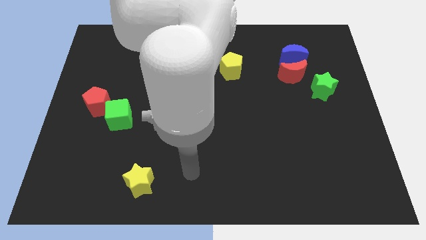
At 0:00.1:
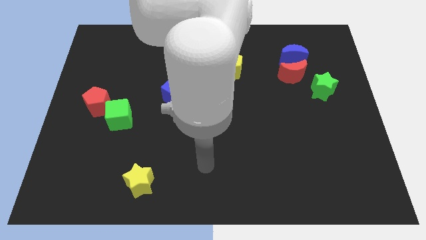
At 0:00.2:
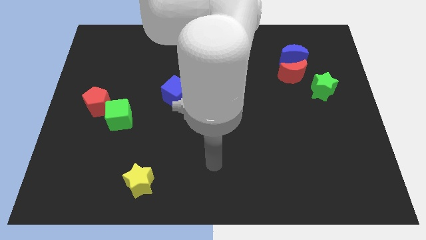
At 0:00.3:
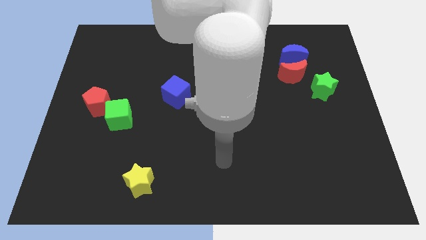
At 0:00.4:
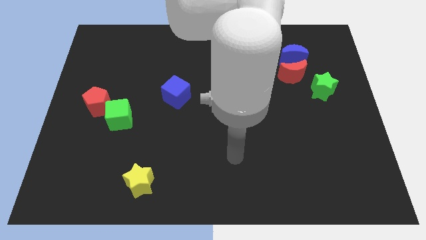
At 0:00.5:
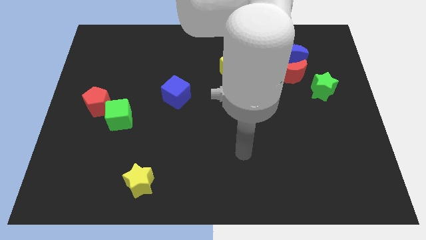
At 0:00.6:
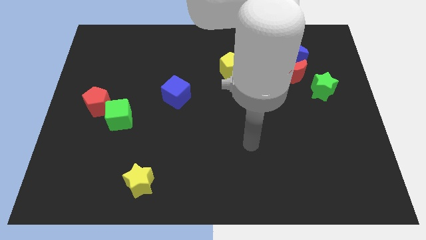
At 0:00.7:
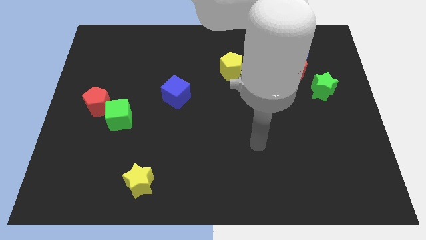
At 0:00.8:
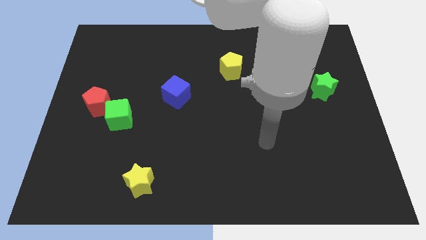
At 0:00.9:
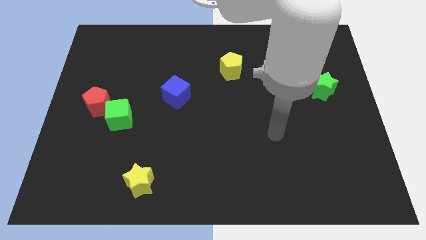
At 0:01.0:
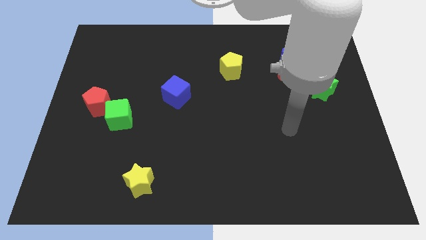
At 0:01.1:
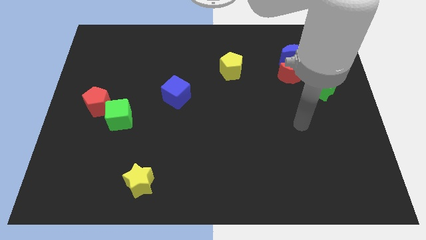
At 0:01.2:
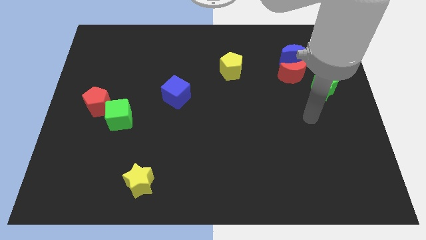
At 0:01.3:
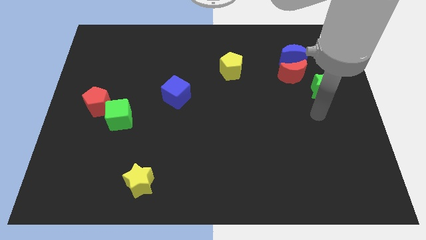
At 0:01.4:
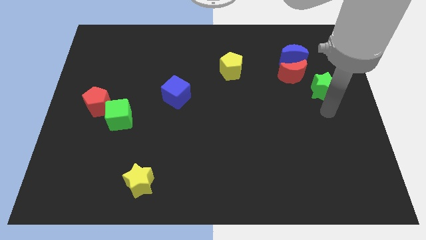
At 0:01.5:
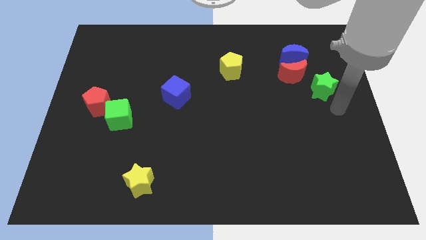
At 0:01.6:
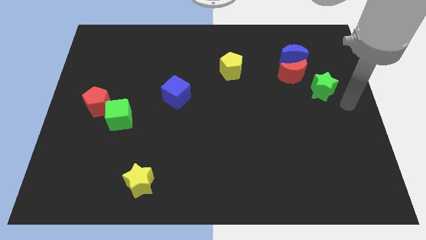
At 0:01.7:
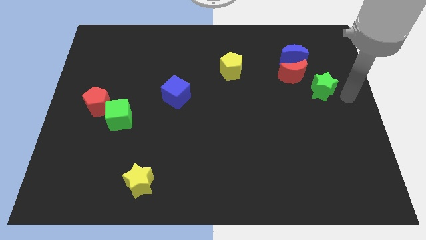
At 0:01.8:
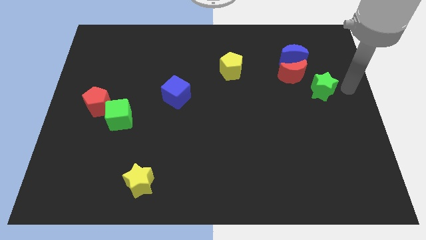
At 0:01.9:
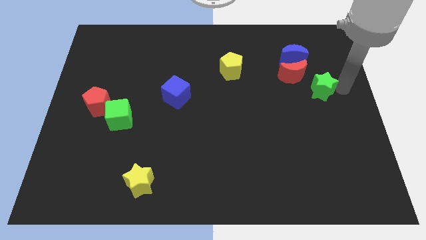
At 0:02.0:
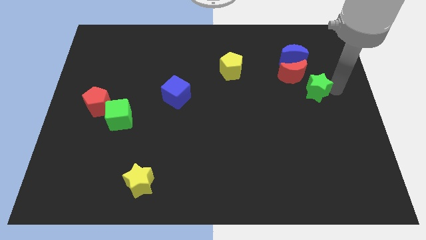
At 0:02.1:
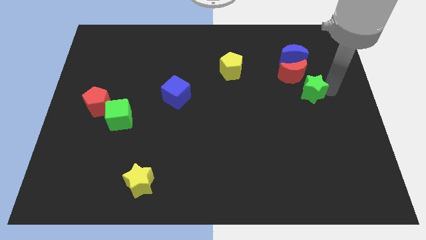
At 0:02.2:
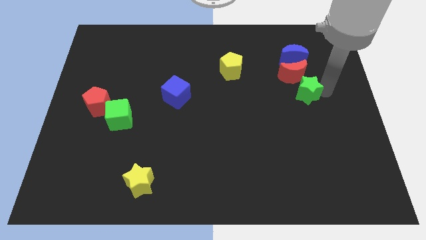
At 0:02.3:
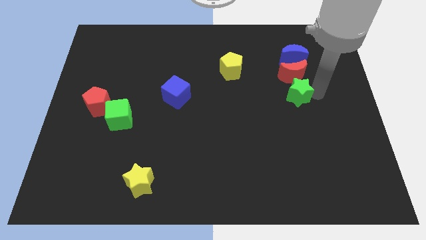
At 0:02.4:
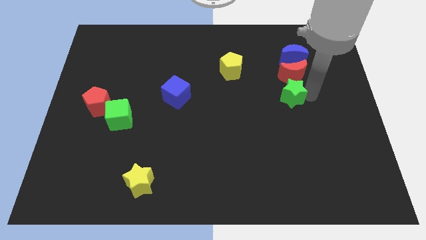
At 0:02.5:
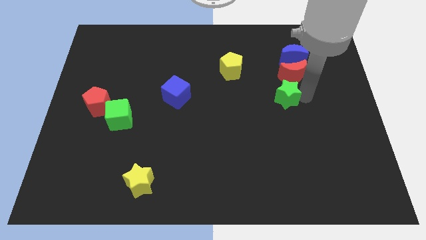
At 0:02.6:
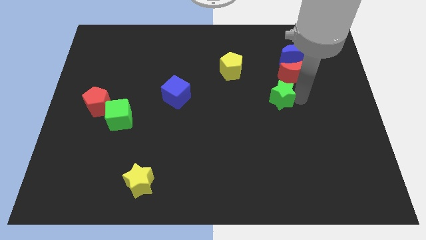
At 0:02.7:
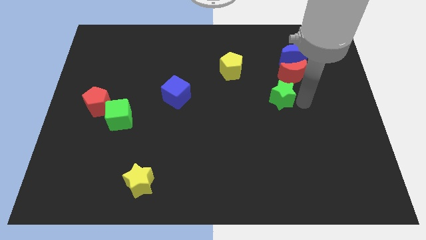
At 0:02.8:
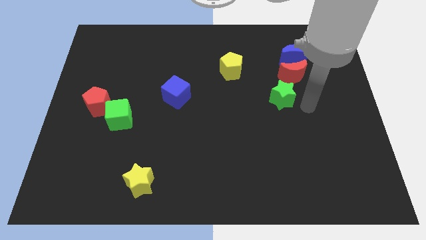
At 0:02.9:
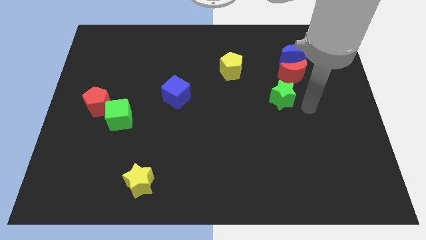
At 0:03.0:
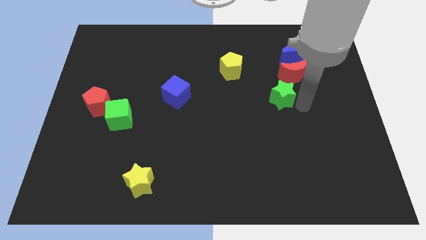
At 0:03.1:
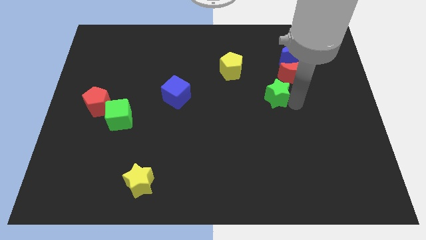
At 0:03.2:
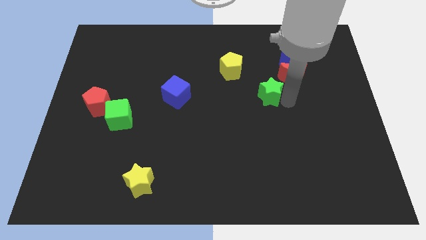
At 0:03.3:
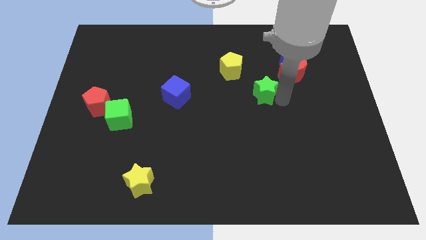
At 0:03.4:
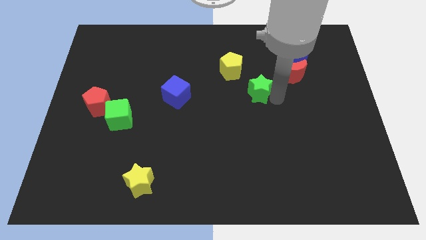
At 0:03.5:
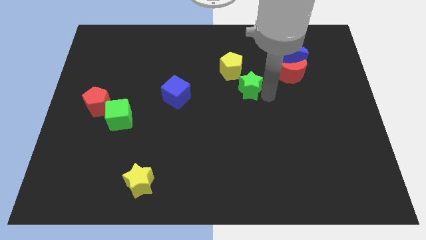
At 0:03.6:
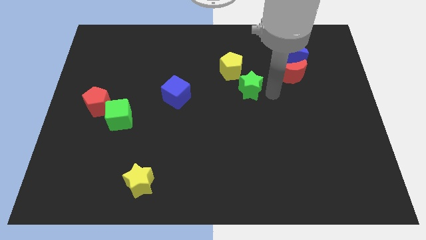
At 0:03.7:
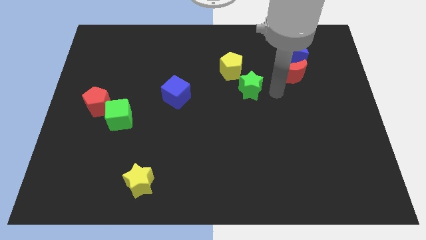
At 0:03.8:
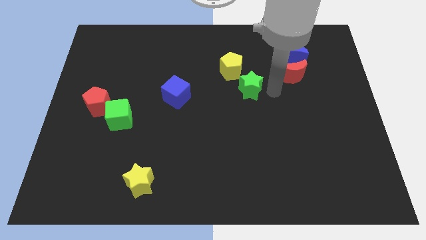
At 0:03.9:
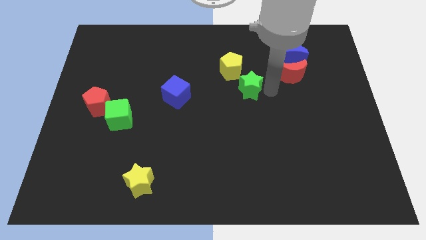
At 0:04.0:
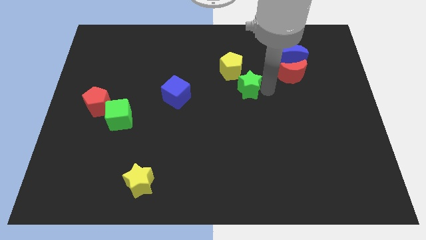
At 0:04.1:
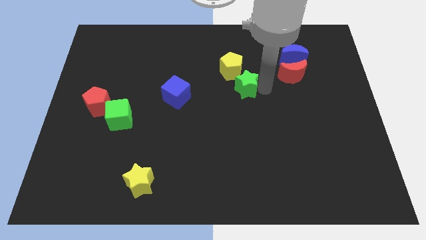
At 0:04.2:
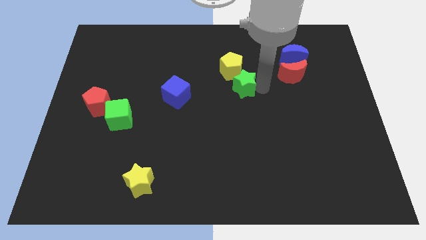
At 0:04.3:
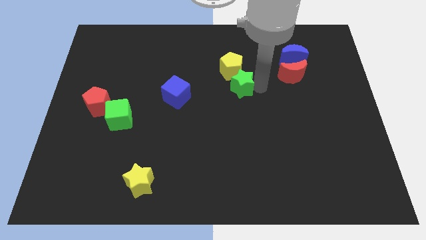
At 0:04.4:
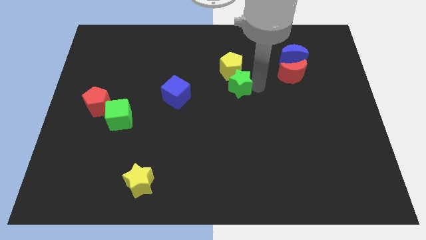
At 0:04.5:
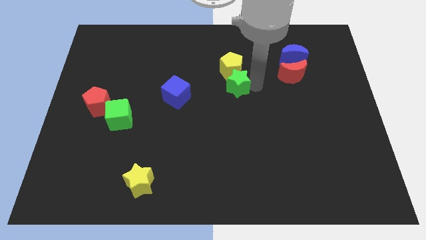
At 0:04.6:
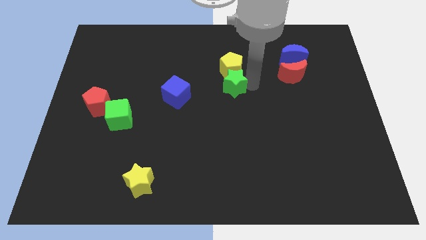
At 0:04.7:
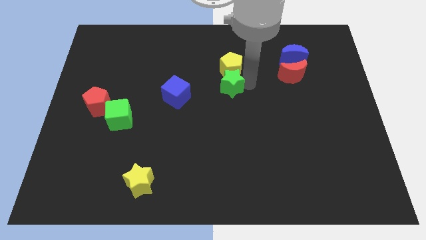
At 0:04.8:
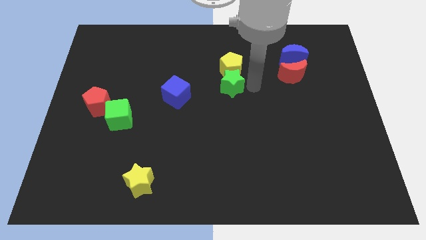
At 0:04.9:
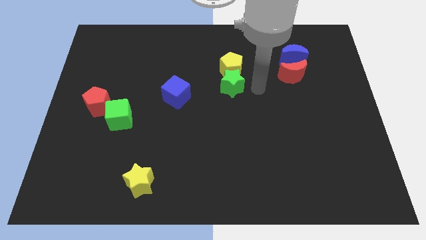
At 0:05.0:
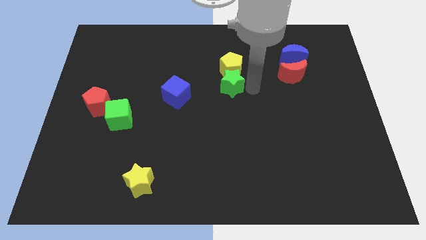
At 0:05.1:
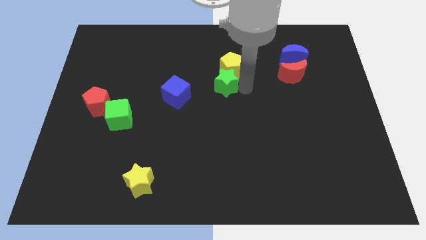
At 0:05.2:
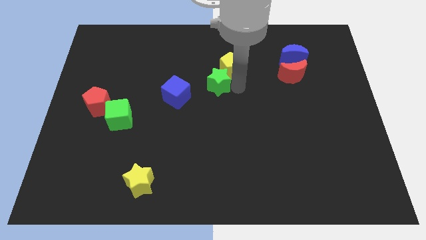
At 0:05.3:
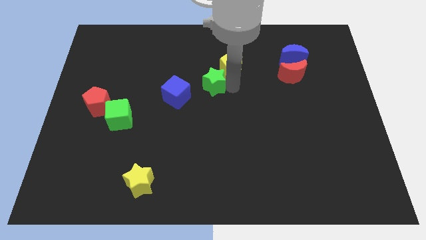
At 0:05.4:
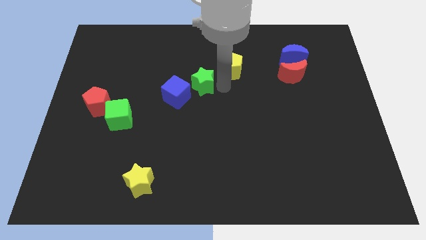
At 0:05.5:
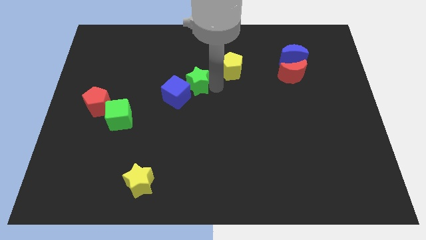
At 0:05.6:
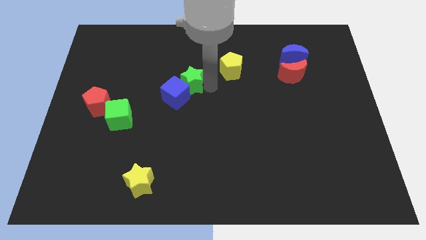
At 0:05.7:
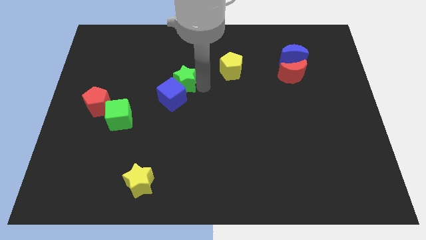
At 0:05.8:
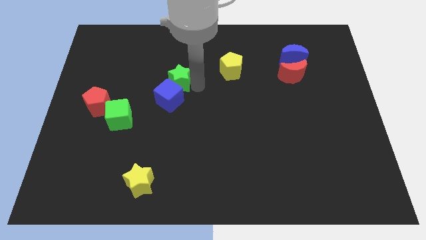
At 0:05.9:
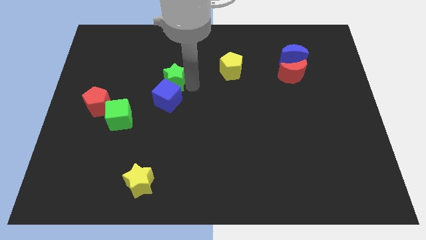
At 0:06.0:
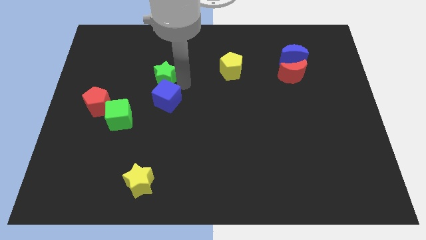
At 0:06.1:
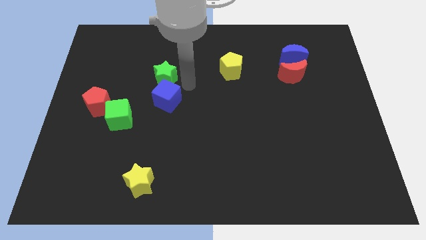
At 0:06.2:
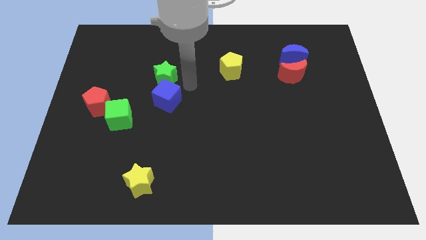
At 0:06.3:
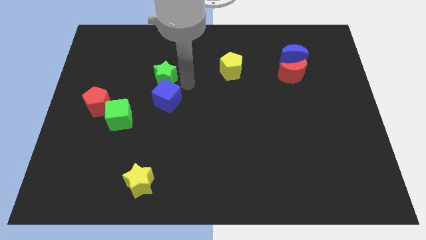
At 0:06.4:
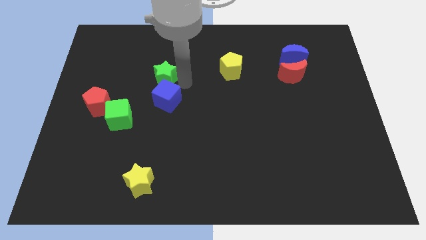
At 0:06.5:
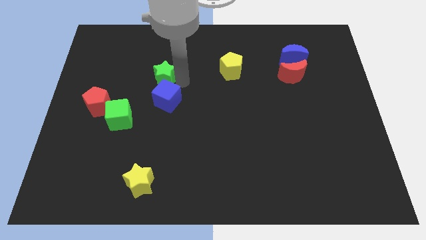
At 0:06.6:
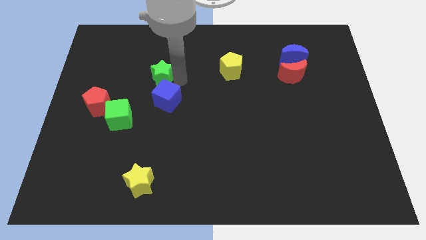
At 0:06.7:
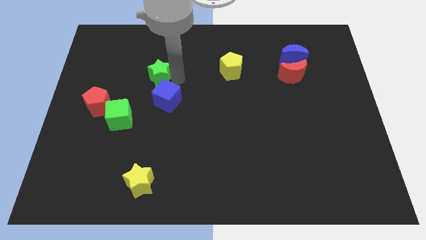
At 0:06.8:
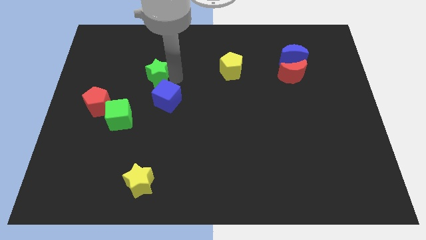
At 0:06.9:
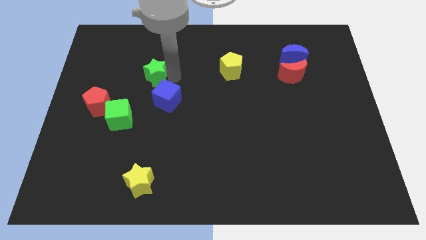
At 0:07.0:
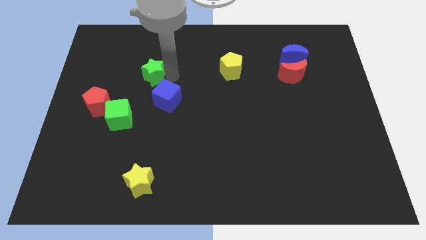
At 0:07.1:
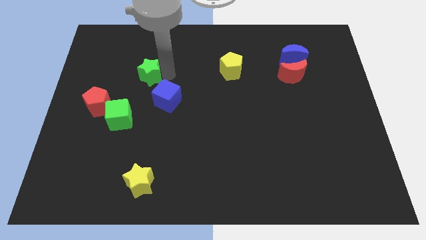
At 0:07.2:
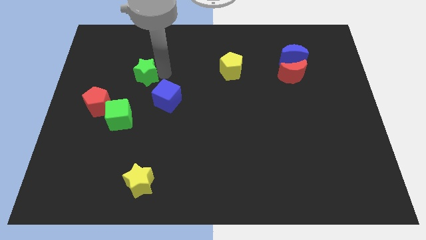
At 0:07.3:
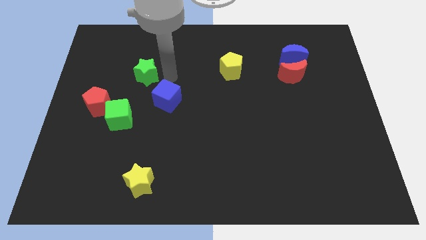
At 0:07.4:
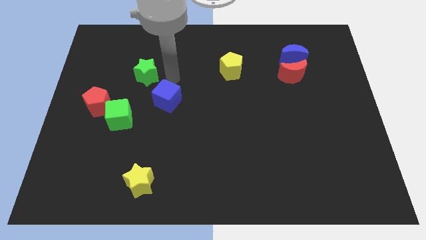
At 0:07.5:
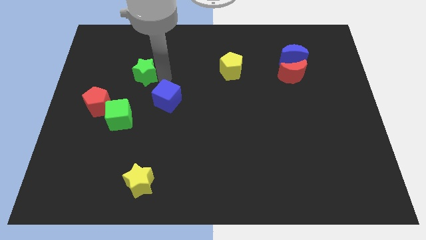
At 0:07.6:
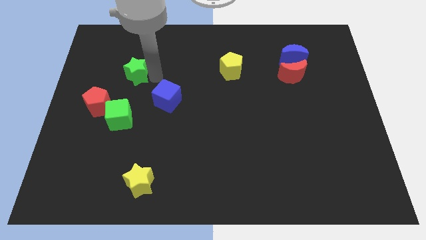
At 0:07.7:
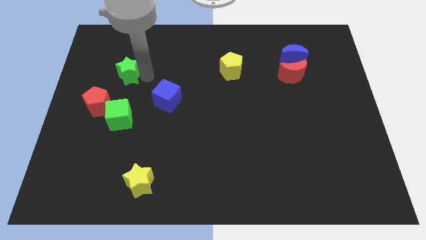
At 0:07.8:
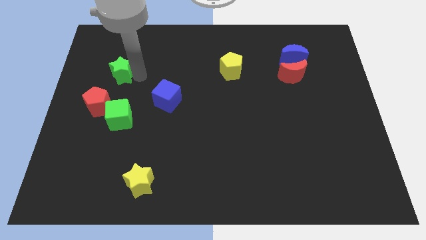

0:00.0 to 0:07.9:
slide the green star to the top of the red pentagon
